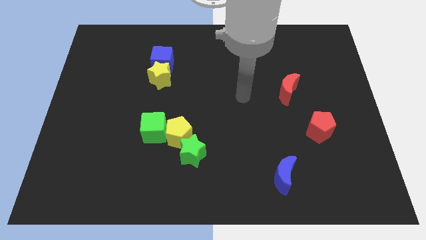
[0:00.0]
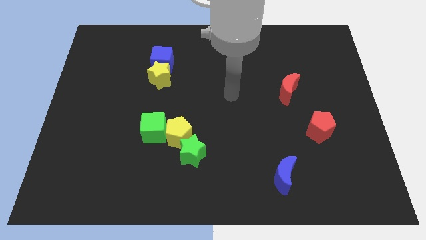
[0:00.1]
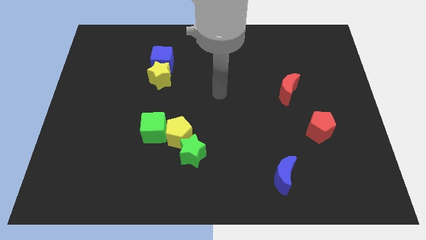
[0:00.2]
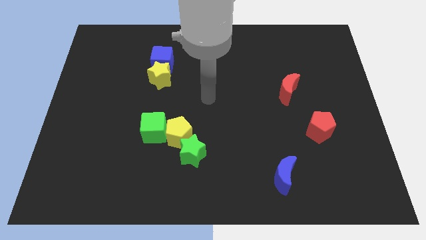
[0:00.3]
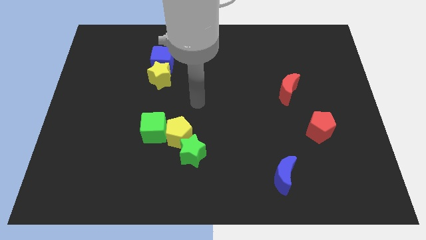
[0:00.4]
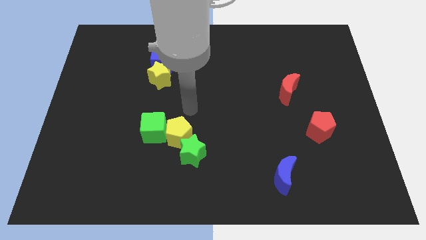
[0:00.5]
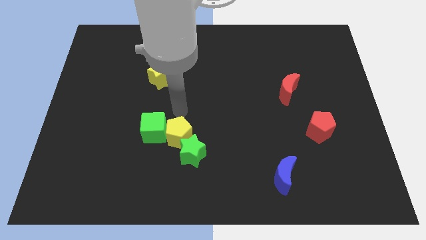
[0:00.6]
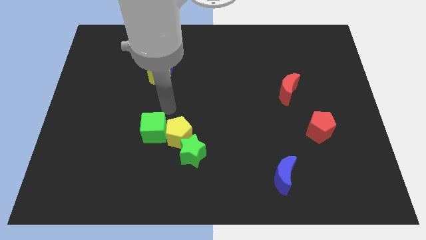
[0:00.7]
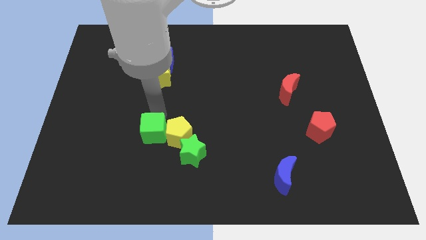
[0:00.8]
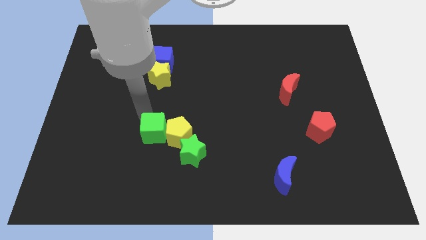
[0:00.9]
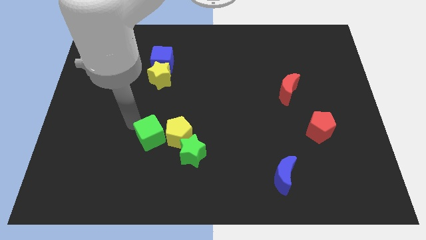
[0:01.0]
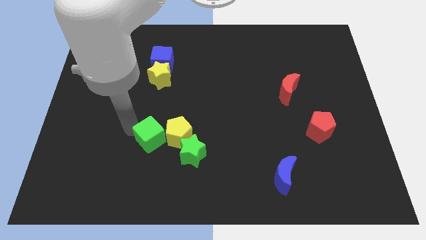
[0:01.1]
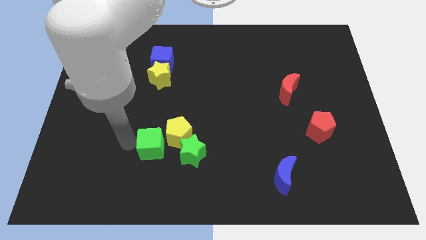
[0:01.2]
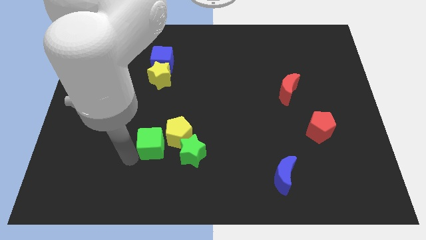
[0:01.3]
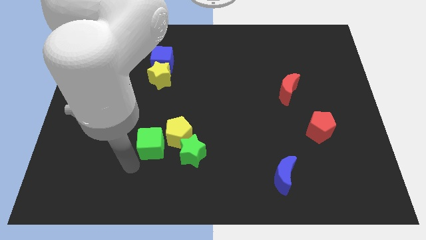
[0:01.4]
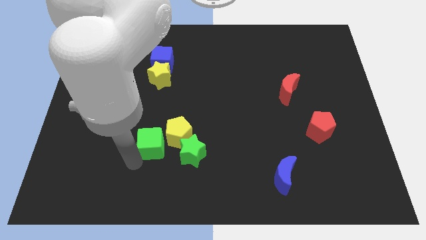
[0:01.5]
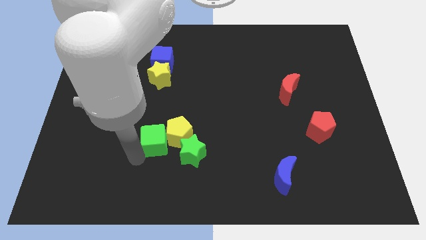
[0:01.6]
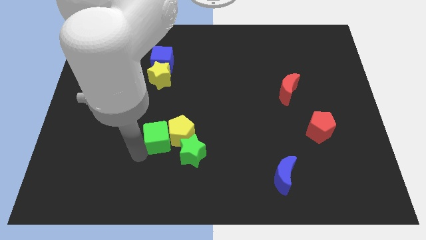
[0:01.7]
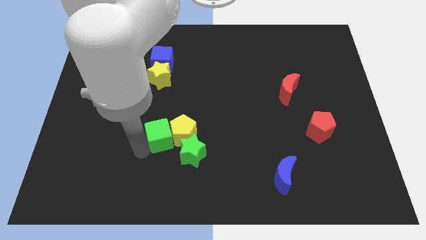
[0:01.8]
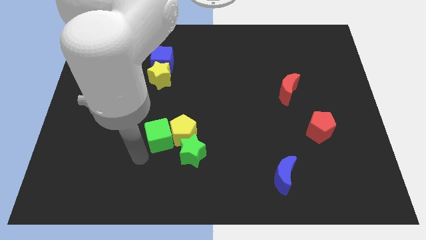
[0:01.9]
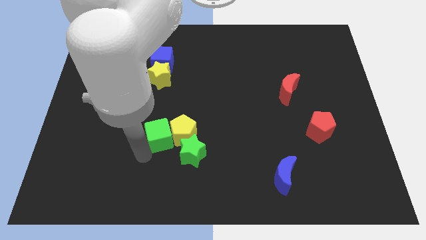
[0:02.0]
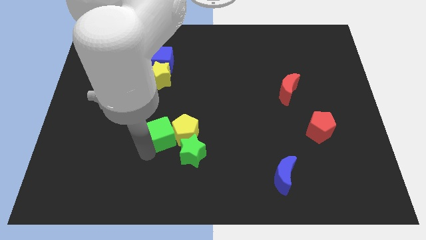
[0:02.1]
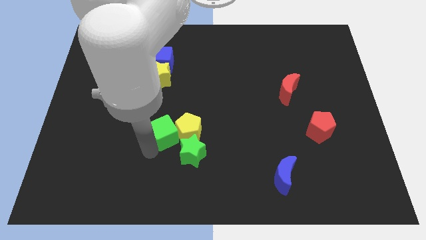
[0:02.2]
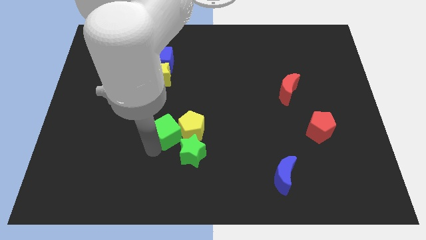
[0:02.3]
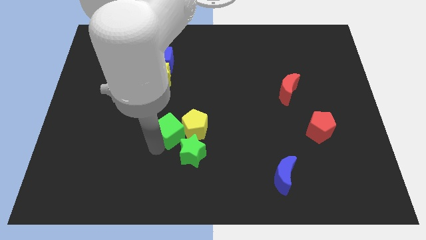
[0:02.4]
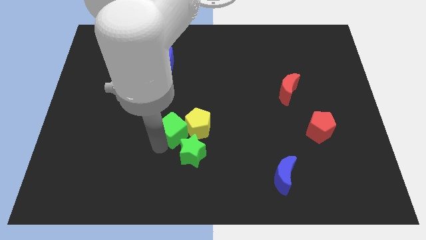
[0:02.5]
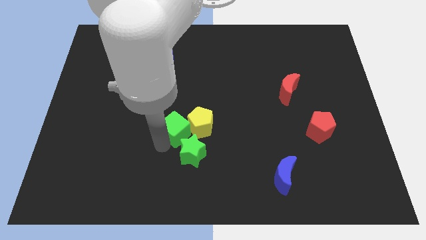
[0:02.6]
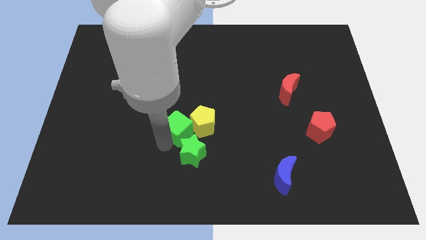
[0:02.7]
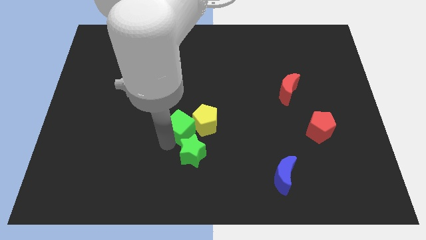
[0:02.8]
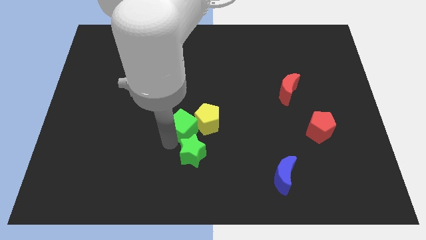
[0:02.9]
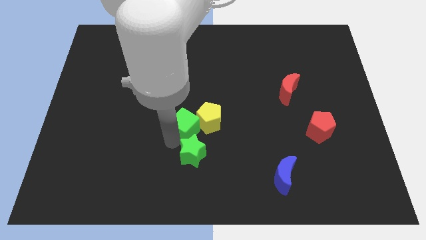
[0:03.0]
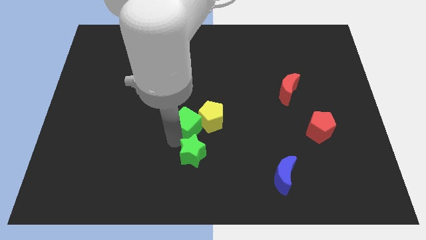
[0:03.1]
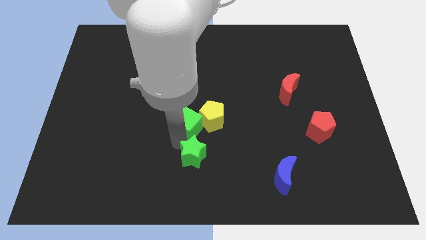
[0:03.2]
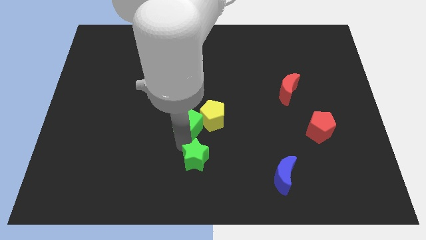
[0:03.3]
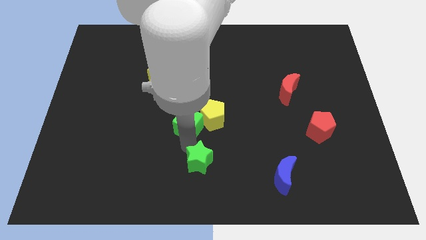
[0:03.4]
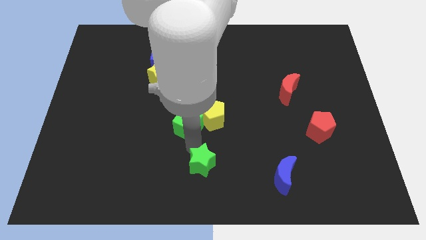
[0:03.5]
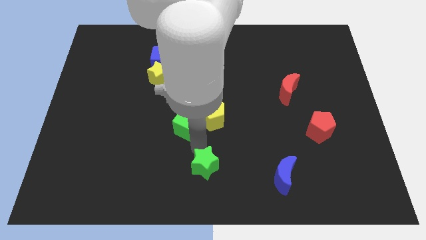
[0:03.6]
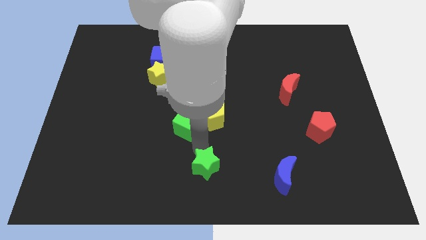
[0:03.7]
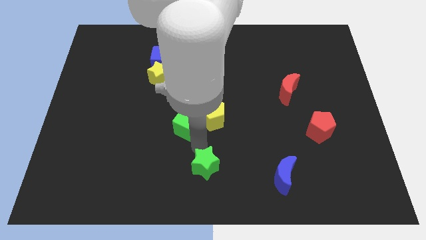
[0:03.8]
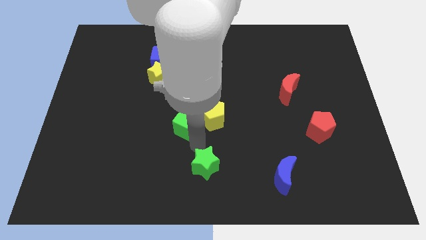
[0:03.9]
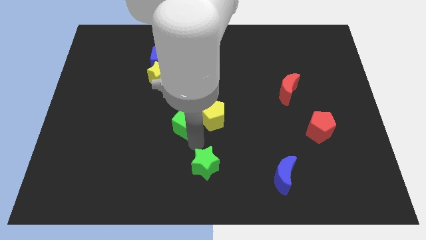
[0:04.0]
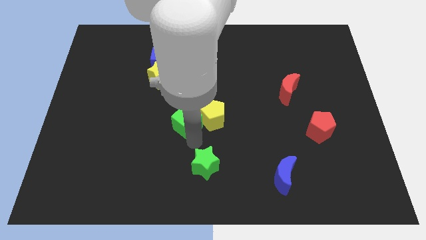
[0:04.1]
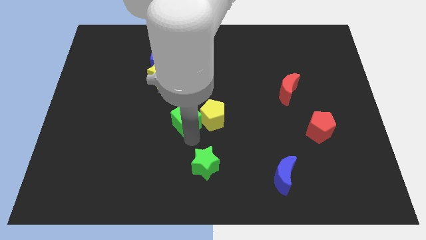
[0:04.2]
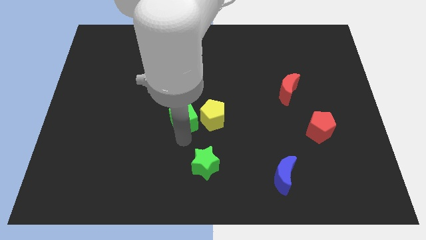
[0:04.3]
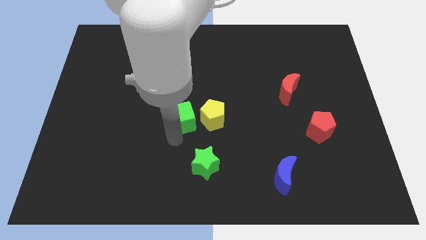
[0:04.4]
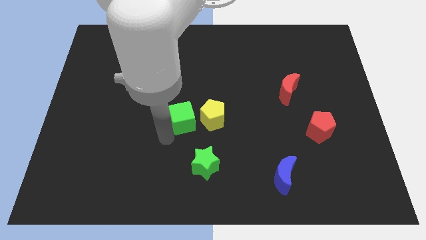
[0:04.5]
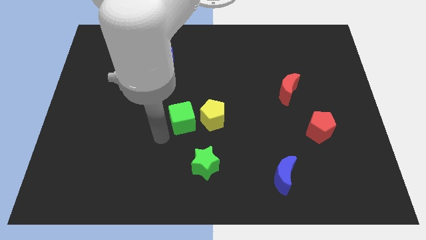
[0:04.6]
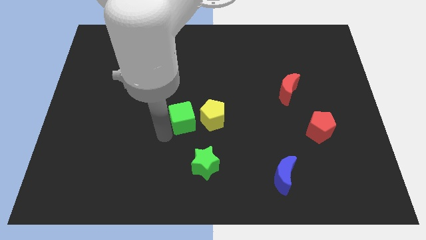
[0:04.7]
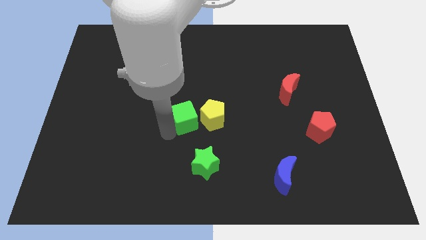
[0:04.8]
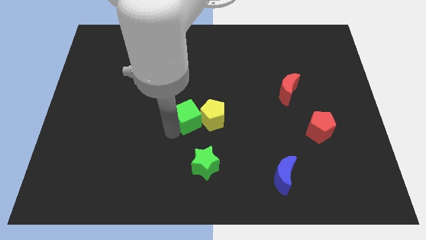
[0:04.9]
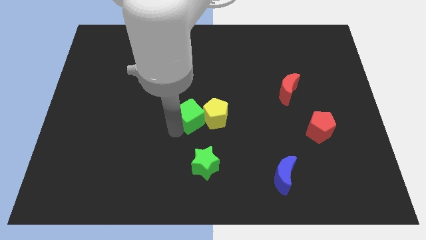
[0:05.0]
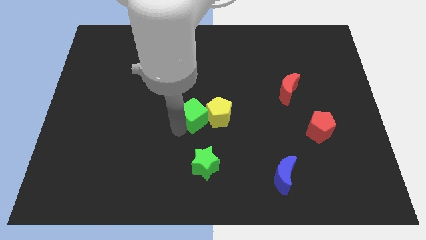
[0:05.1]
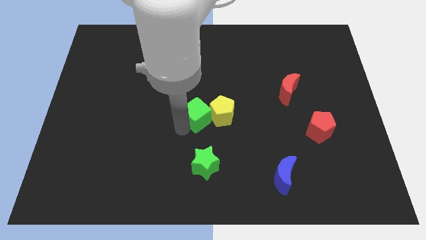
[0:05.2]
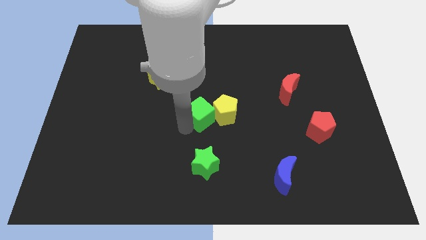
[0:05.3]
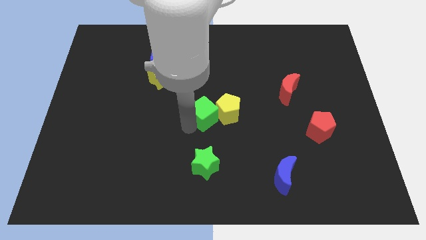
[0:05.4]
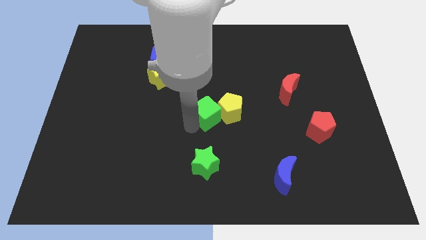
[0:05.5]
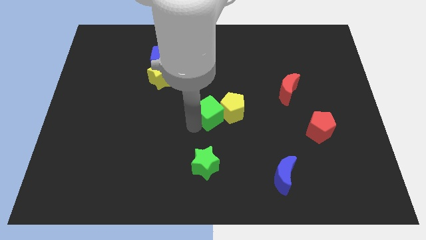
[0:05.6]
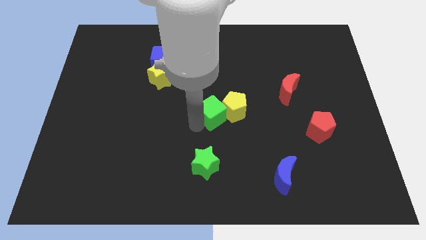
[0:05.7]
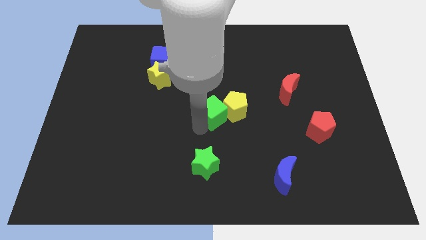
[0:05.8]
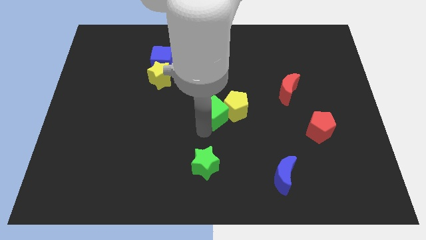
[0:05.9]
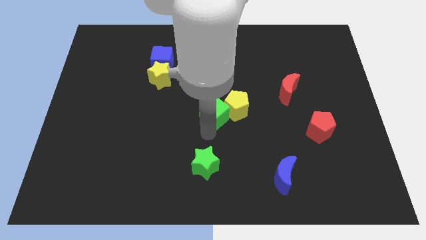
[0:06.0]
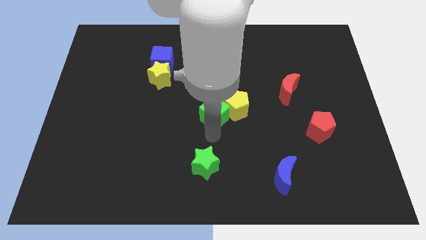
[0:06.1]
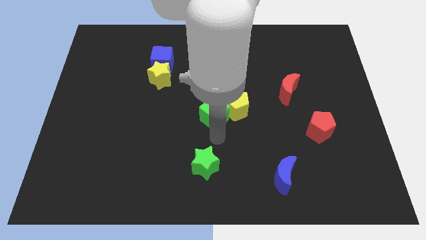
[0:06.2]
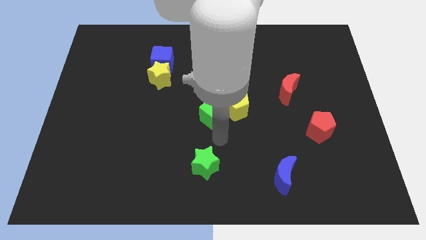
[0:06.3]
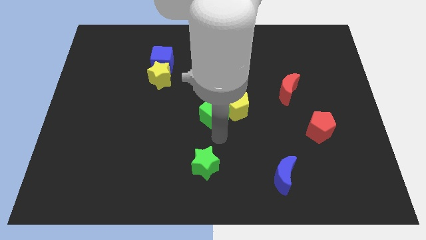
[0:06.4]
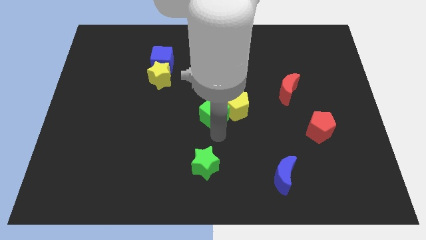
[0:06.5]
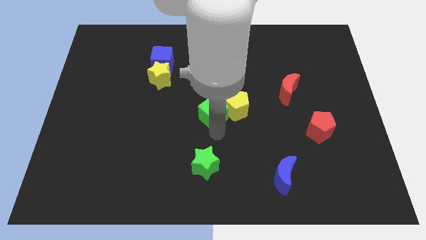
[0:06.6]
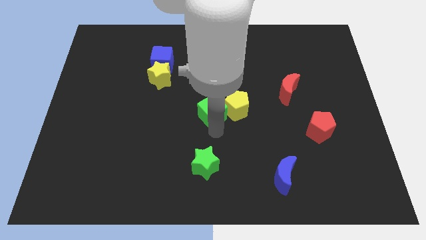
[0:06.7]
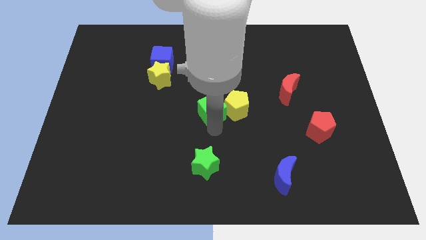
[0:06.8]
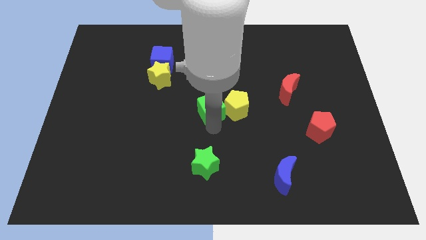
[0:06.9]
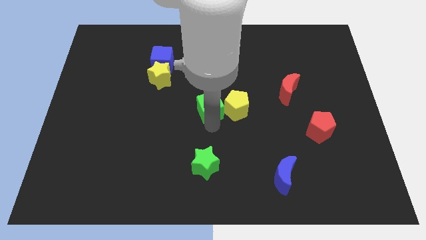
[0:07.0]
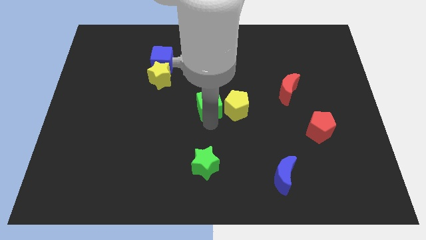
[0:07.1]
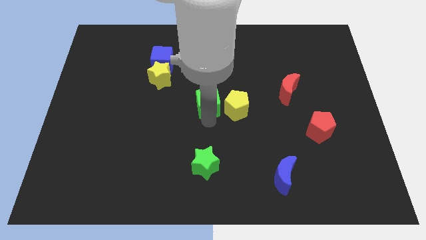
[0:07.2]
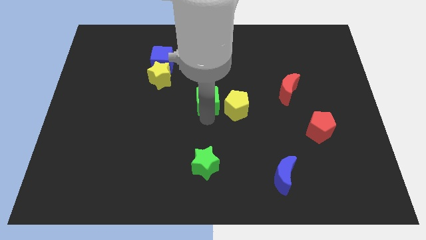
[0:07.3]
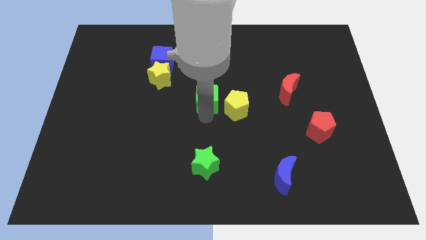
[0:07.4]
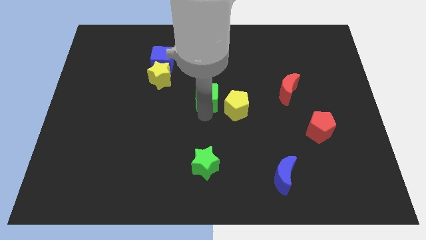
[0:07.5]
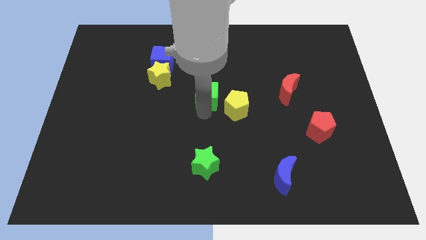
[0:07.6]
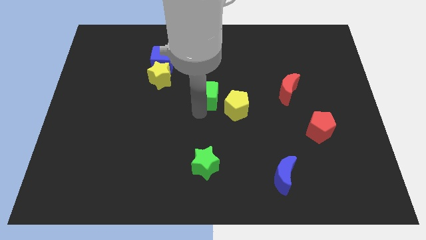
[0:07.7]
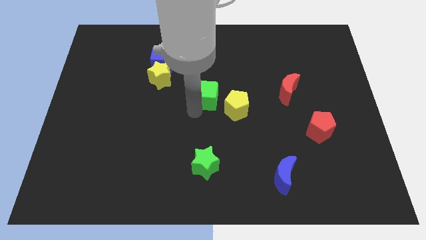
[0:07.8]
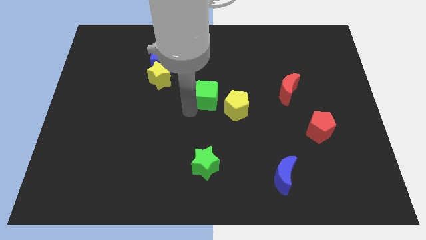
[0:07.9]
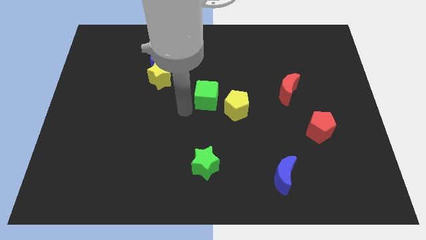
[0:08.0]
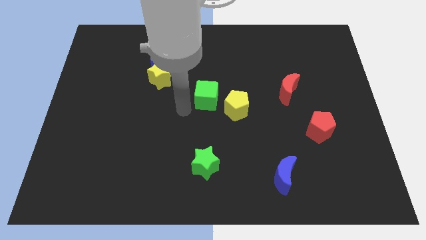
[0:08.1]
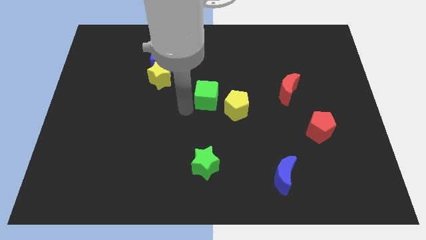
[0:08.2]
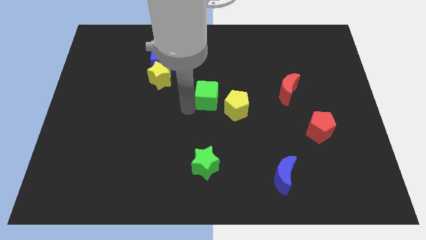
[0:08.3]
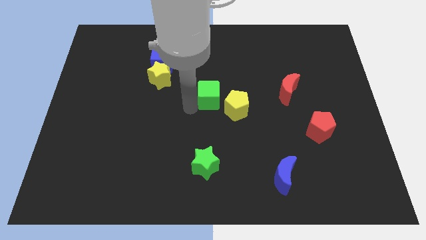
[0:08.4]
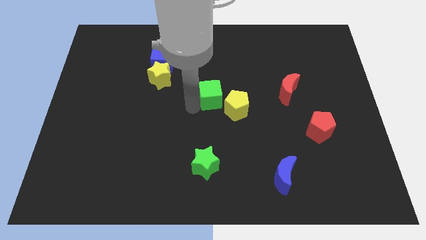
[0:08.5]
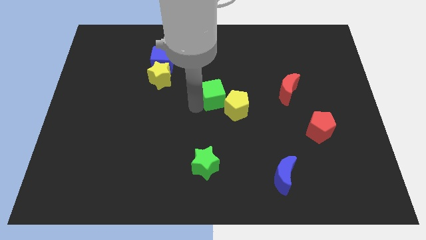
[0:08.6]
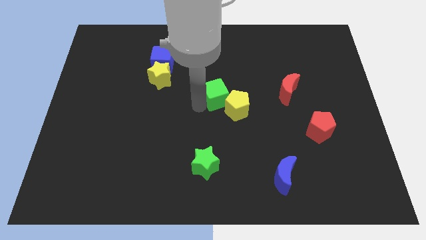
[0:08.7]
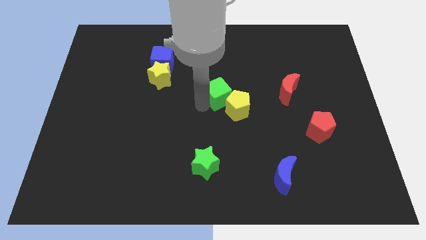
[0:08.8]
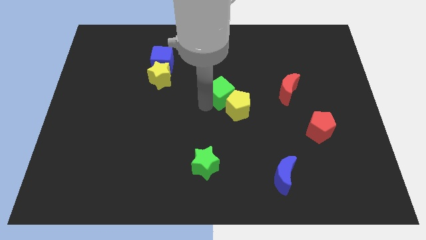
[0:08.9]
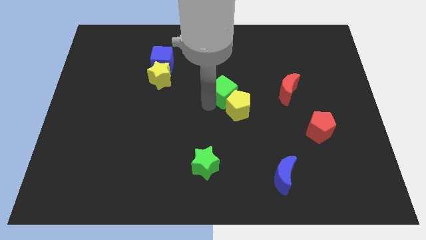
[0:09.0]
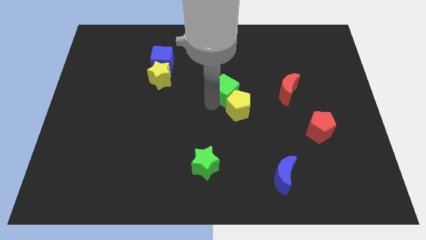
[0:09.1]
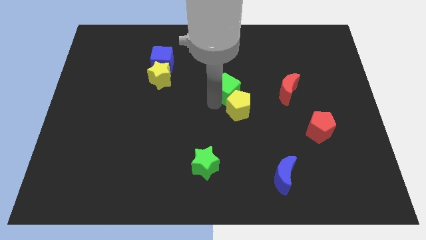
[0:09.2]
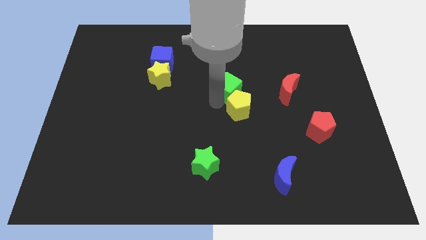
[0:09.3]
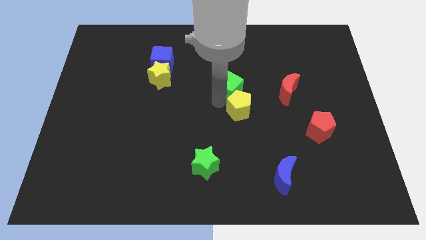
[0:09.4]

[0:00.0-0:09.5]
push the green cube up and then right
